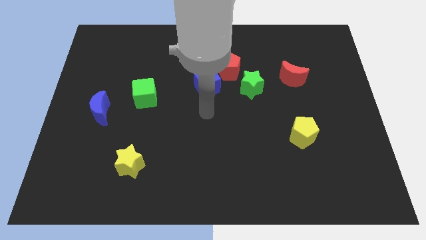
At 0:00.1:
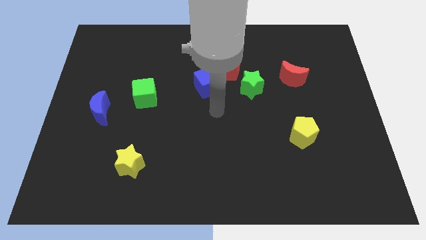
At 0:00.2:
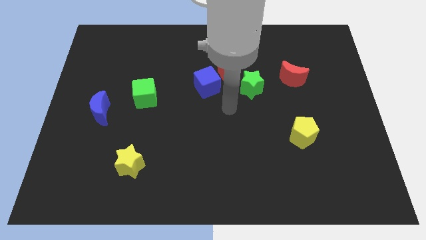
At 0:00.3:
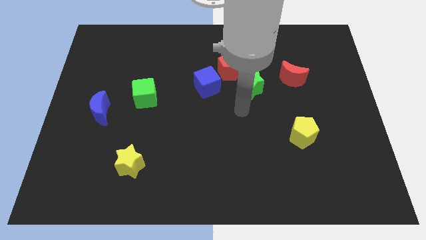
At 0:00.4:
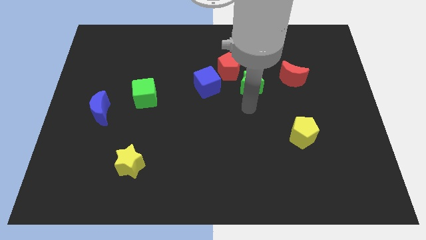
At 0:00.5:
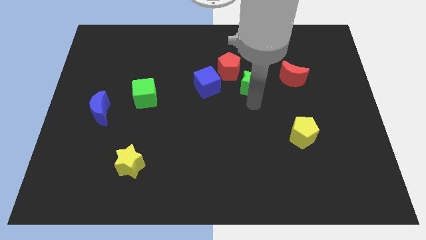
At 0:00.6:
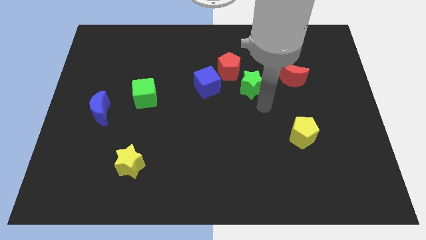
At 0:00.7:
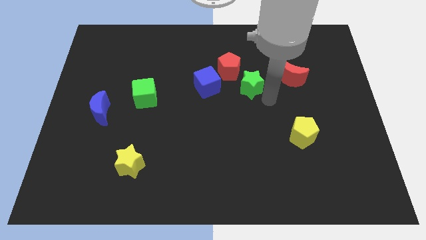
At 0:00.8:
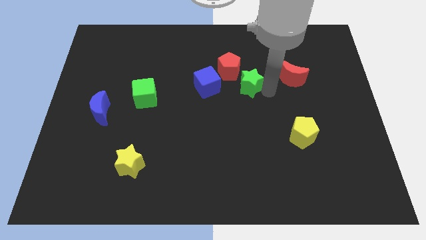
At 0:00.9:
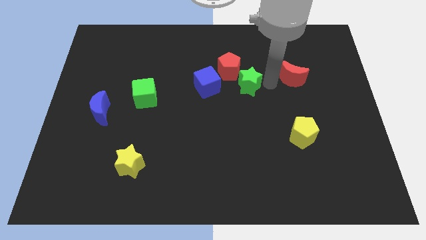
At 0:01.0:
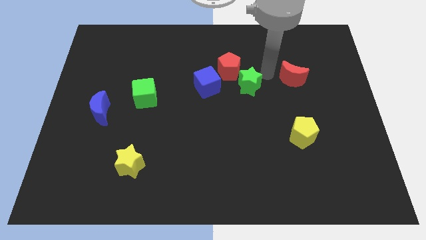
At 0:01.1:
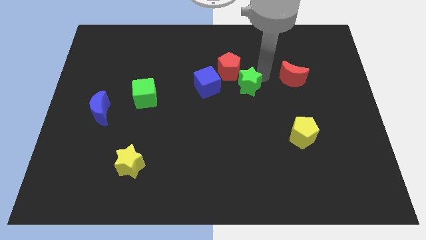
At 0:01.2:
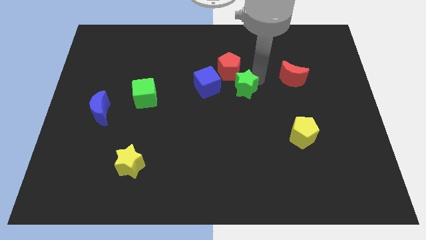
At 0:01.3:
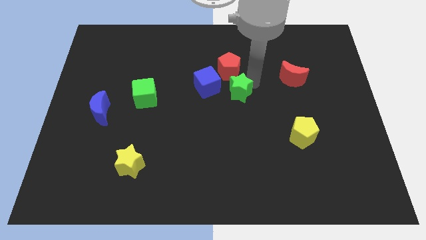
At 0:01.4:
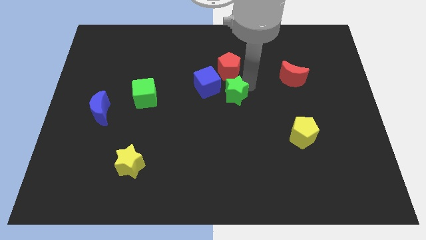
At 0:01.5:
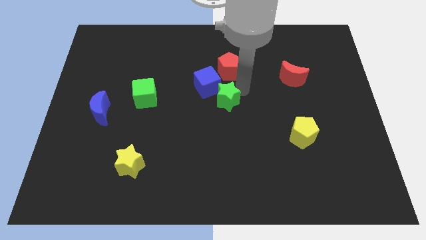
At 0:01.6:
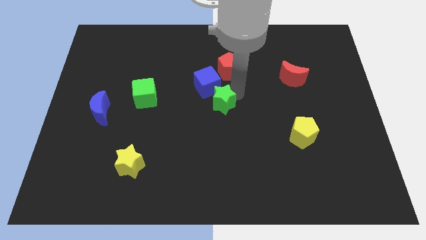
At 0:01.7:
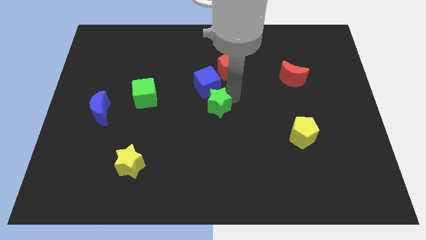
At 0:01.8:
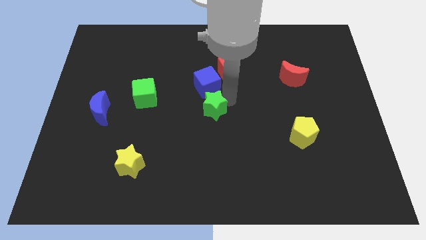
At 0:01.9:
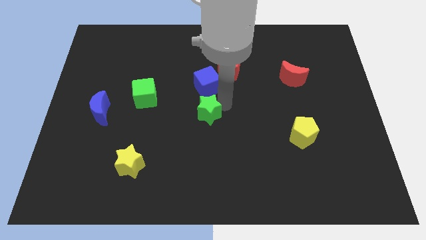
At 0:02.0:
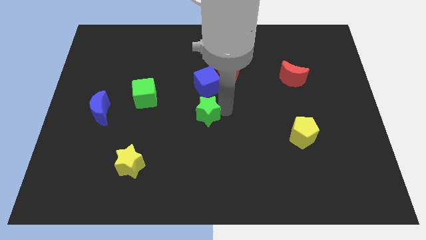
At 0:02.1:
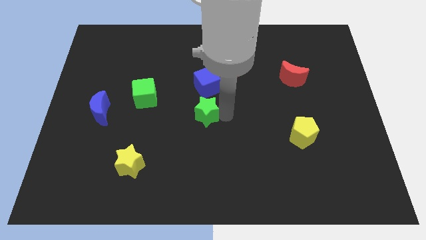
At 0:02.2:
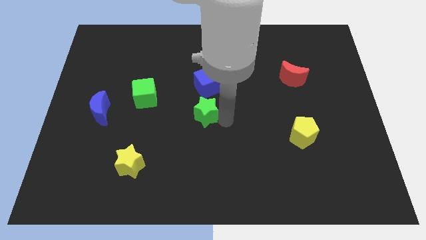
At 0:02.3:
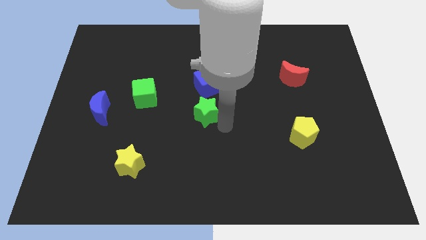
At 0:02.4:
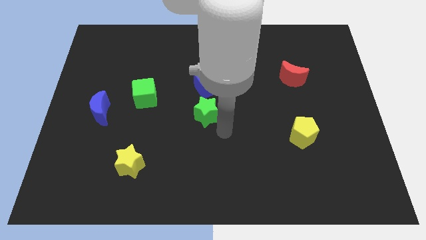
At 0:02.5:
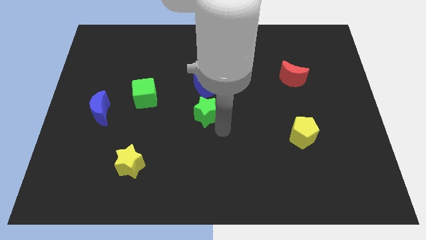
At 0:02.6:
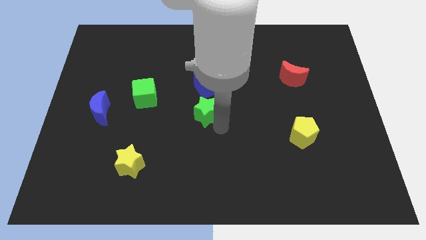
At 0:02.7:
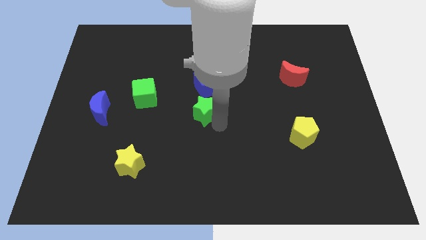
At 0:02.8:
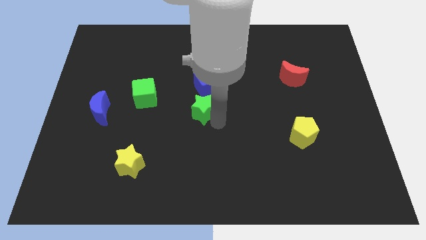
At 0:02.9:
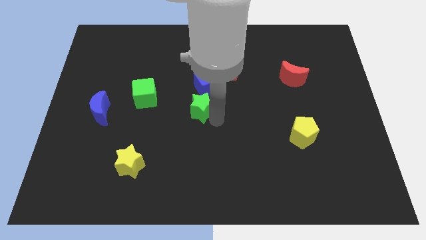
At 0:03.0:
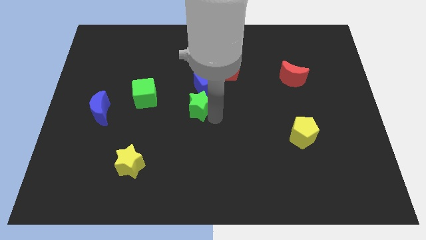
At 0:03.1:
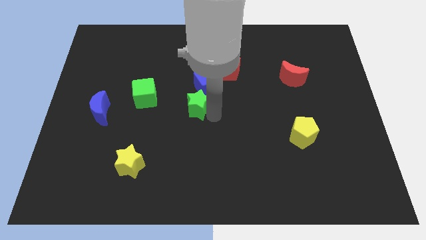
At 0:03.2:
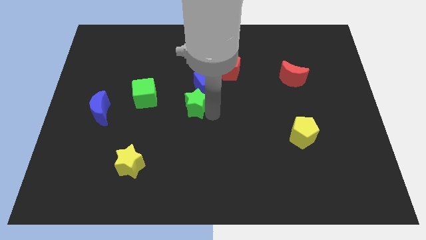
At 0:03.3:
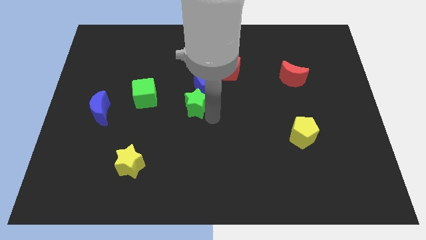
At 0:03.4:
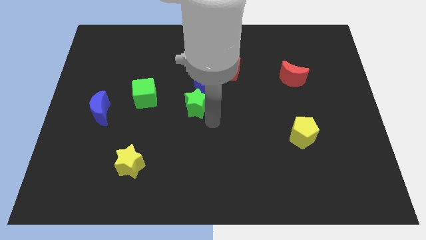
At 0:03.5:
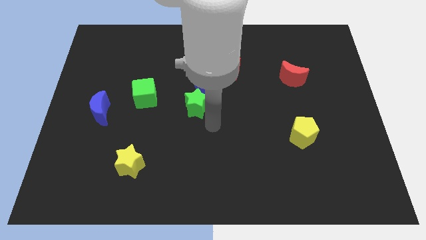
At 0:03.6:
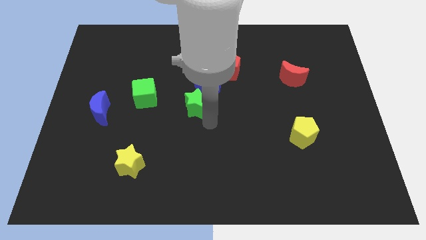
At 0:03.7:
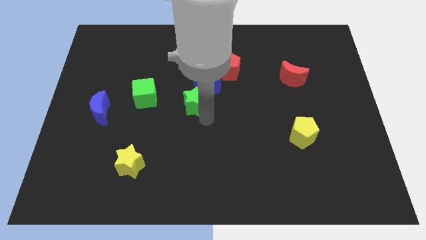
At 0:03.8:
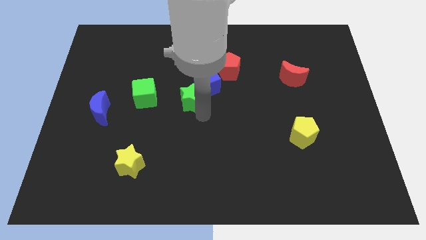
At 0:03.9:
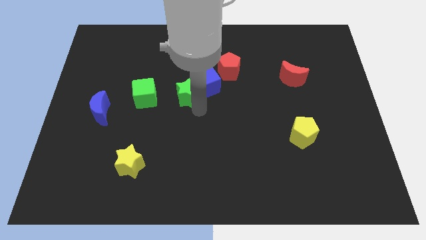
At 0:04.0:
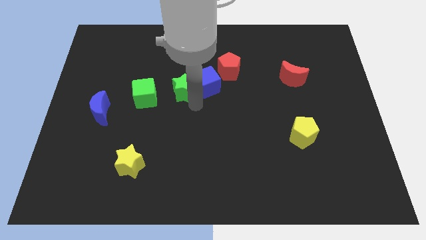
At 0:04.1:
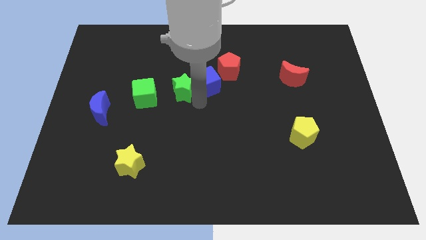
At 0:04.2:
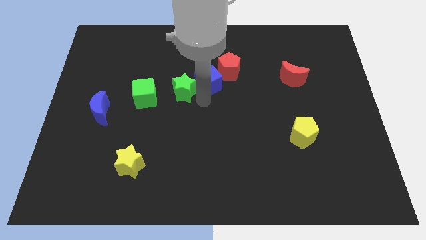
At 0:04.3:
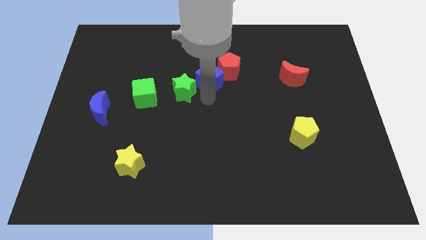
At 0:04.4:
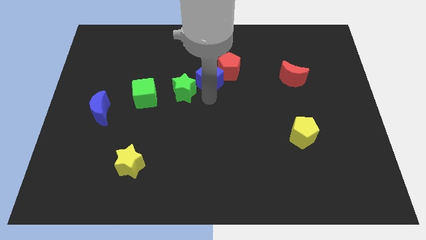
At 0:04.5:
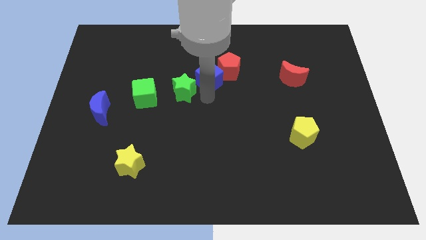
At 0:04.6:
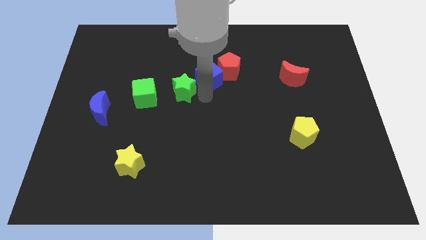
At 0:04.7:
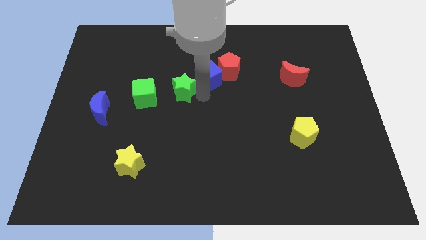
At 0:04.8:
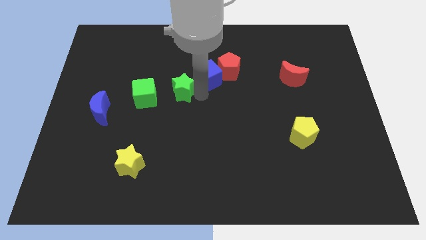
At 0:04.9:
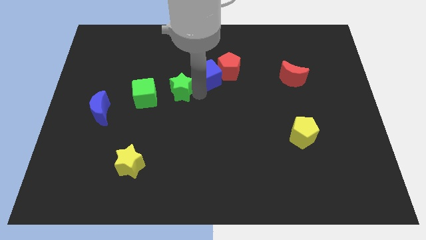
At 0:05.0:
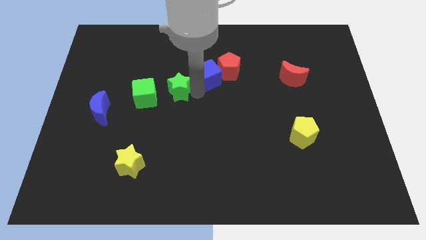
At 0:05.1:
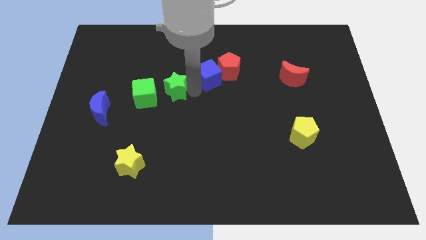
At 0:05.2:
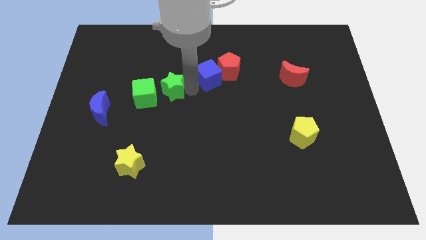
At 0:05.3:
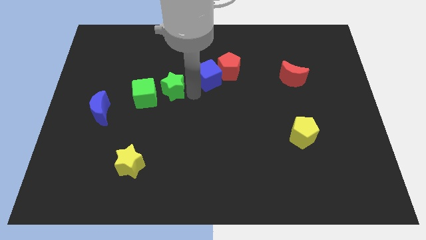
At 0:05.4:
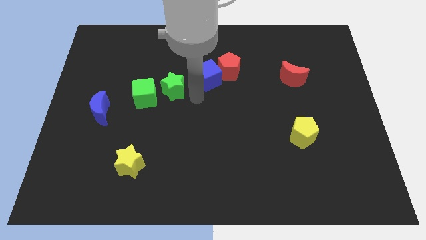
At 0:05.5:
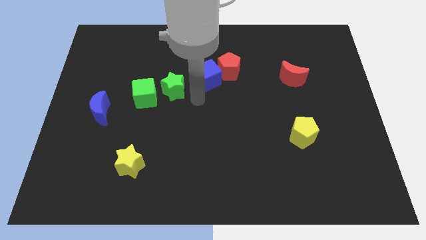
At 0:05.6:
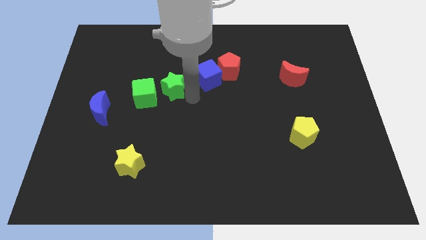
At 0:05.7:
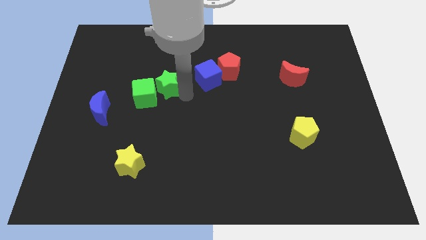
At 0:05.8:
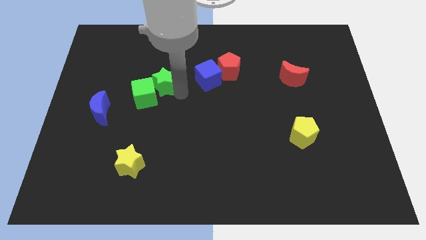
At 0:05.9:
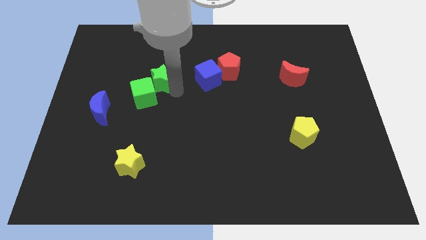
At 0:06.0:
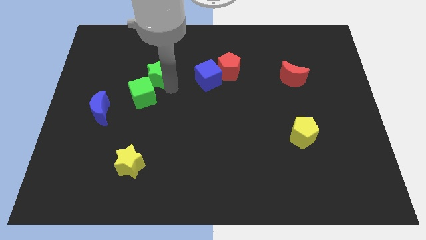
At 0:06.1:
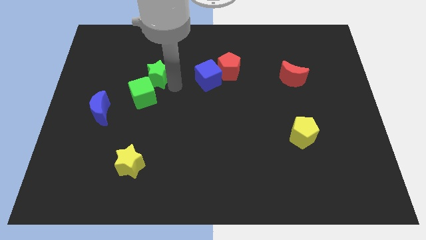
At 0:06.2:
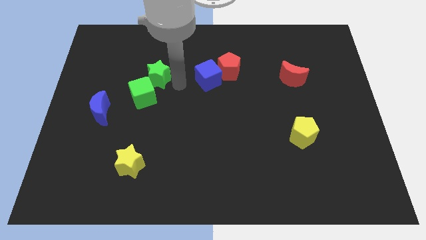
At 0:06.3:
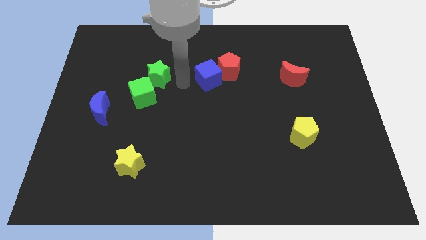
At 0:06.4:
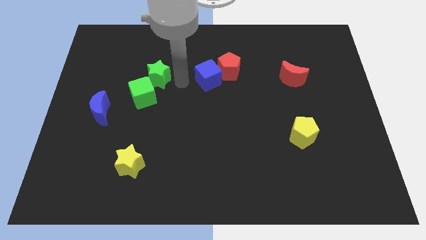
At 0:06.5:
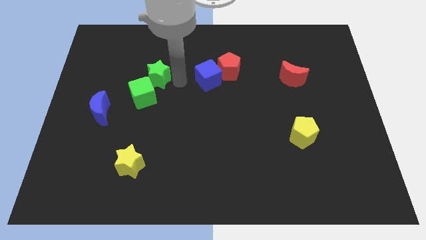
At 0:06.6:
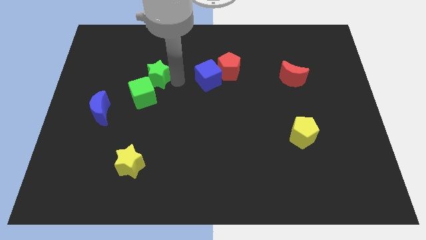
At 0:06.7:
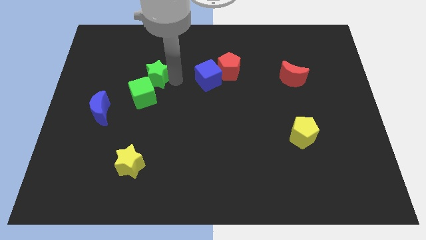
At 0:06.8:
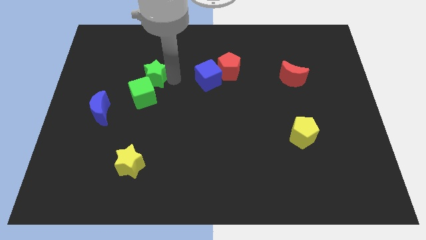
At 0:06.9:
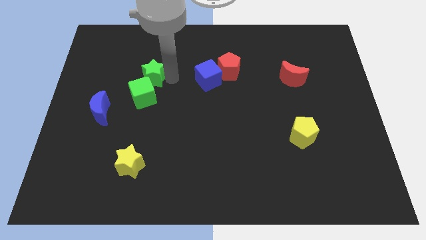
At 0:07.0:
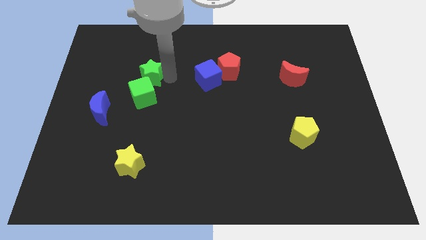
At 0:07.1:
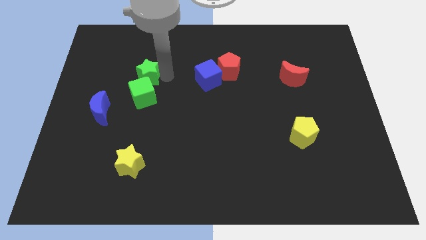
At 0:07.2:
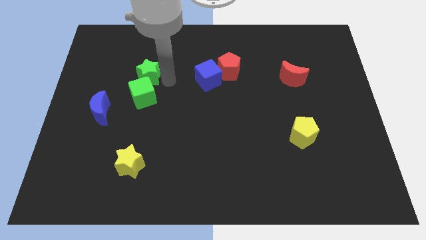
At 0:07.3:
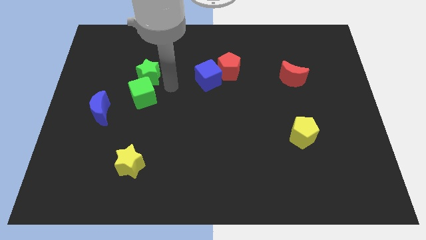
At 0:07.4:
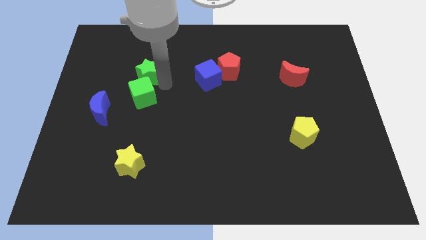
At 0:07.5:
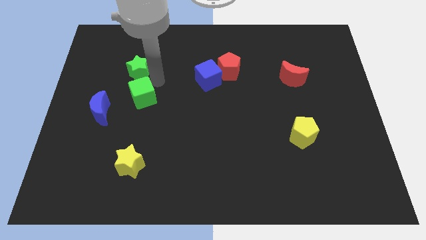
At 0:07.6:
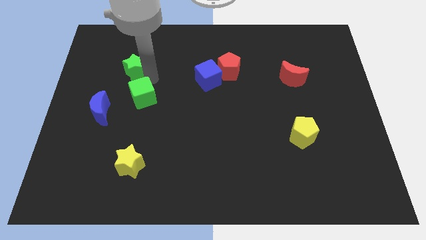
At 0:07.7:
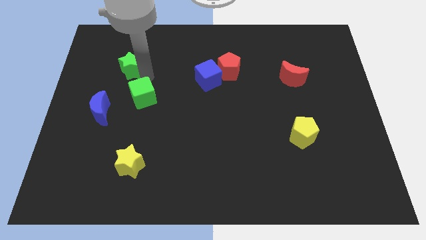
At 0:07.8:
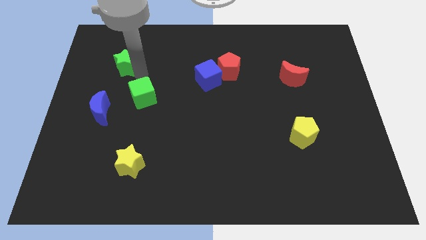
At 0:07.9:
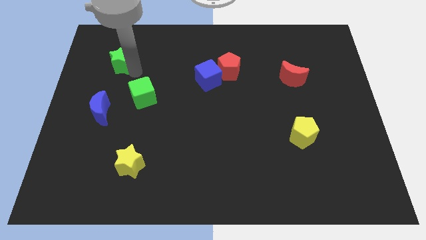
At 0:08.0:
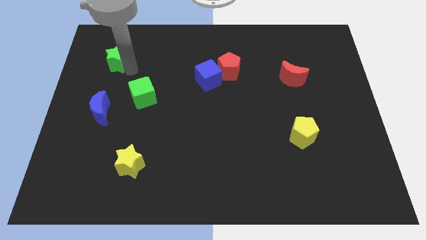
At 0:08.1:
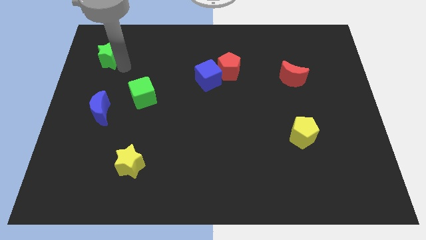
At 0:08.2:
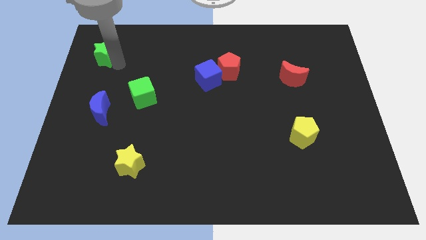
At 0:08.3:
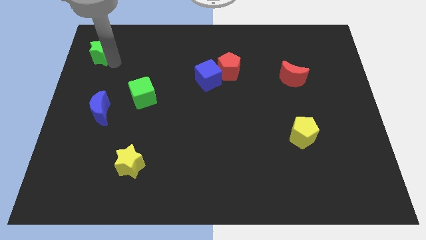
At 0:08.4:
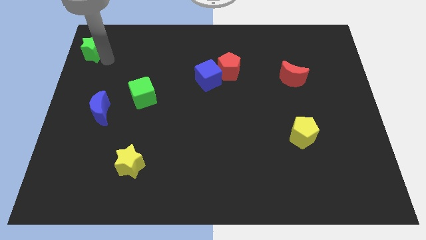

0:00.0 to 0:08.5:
put the green star to the top left
